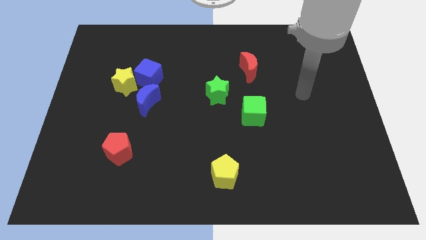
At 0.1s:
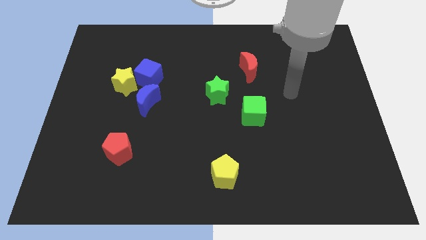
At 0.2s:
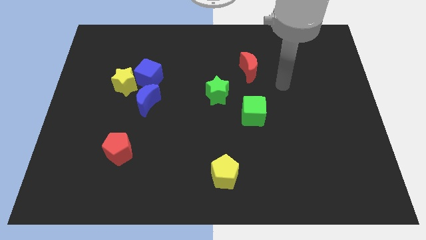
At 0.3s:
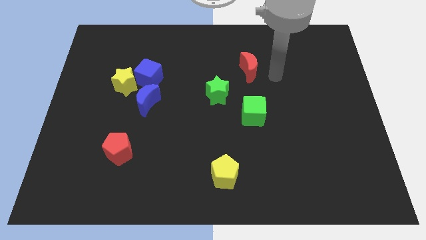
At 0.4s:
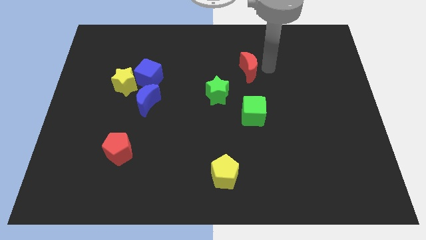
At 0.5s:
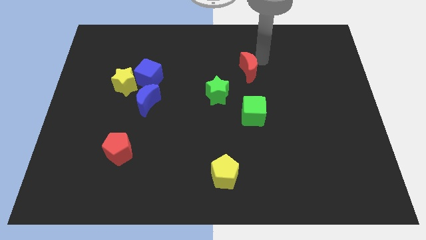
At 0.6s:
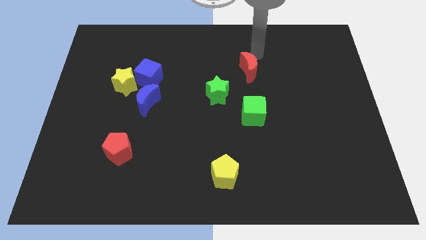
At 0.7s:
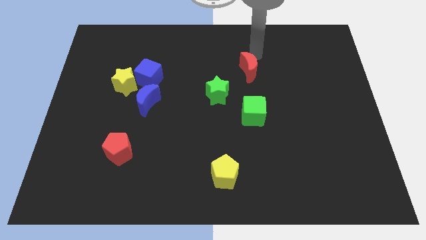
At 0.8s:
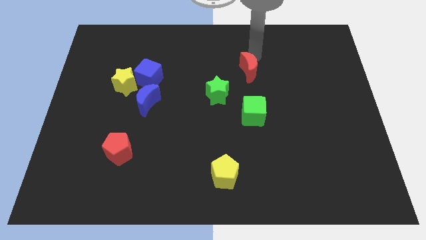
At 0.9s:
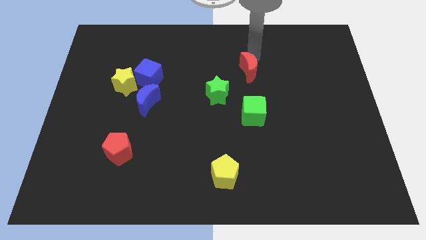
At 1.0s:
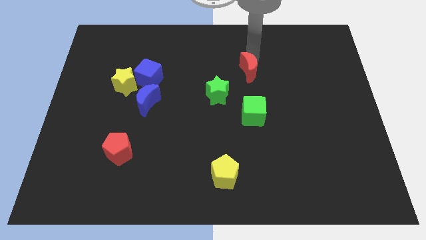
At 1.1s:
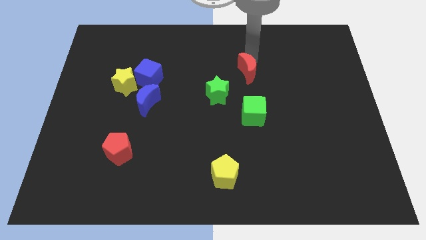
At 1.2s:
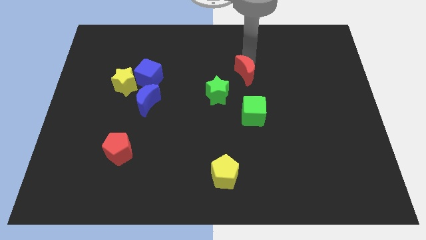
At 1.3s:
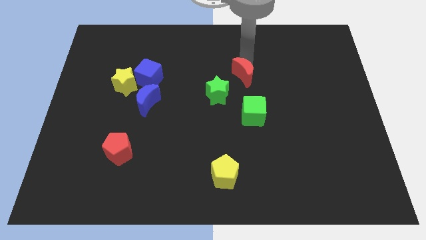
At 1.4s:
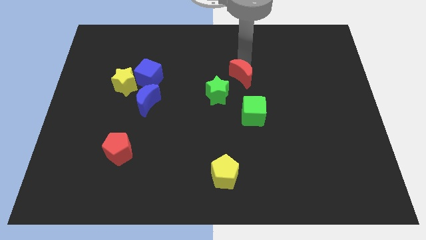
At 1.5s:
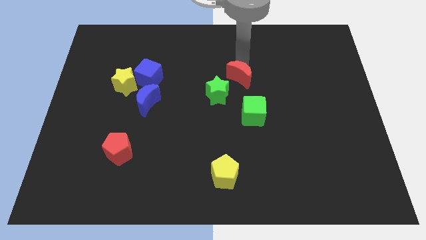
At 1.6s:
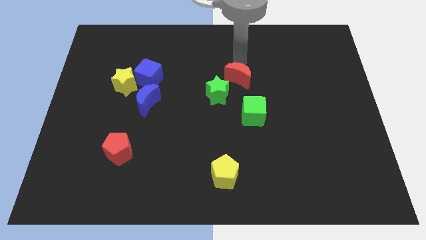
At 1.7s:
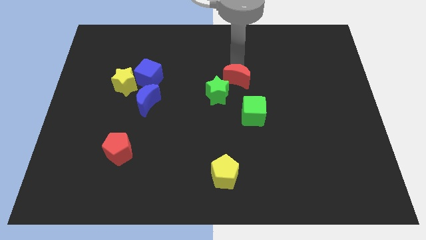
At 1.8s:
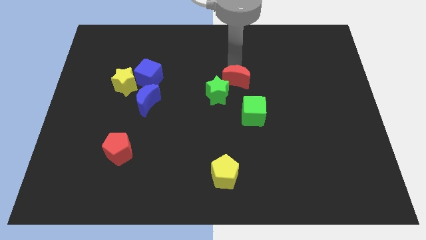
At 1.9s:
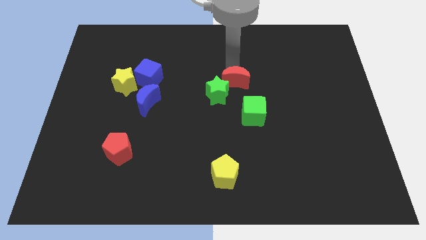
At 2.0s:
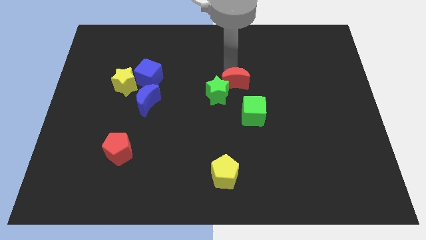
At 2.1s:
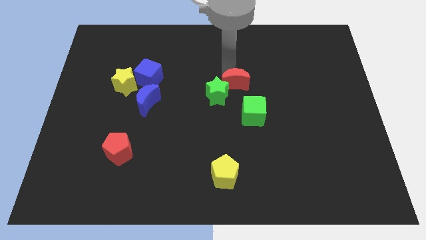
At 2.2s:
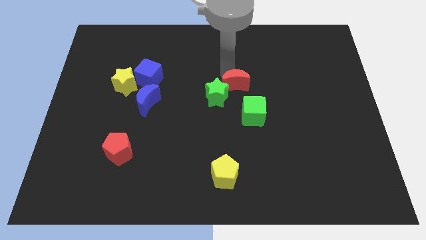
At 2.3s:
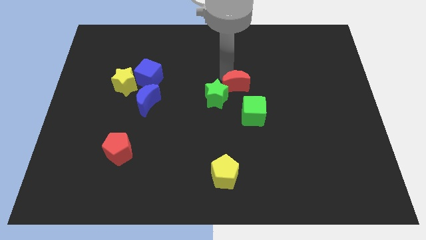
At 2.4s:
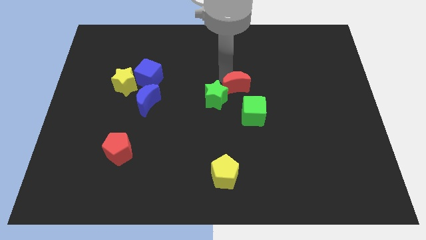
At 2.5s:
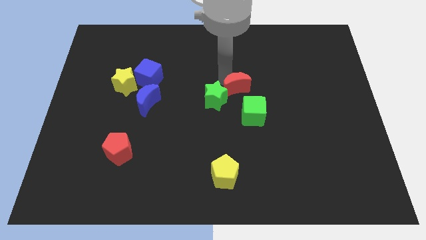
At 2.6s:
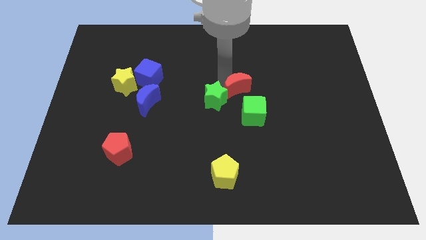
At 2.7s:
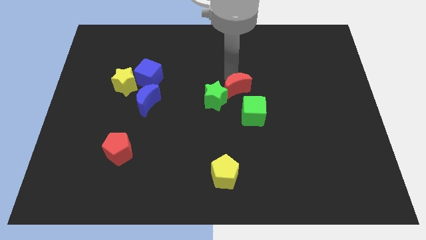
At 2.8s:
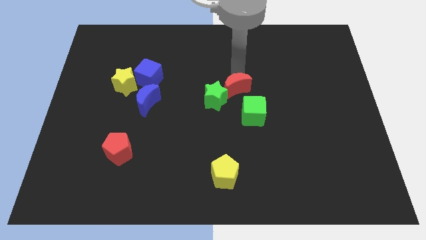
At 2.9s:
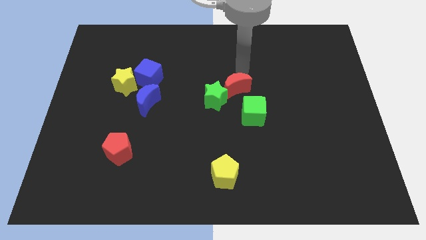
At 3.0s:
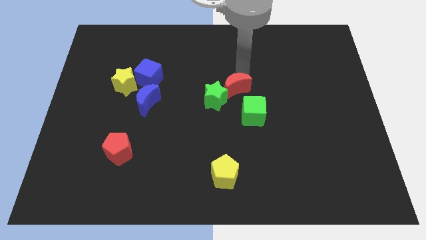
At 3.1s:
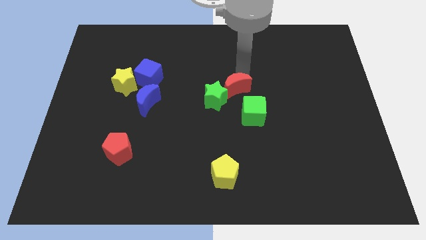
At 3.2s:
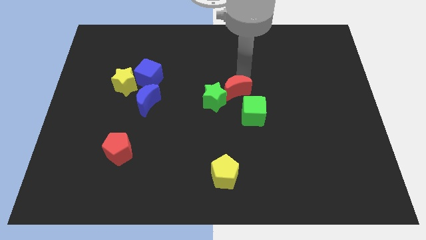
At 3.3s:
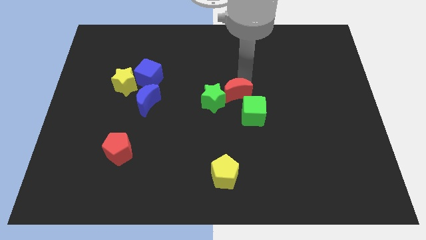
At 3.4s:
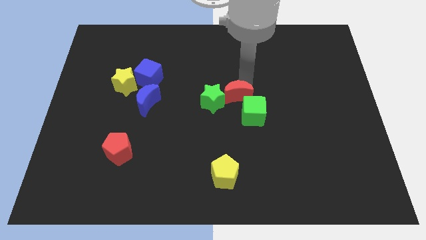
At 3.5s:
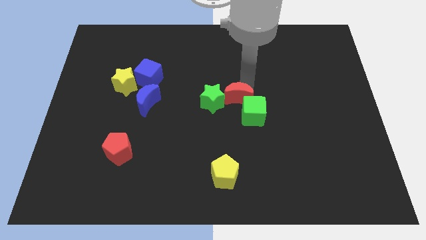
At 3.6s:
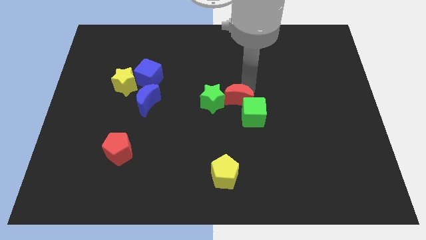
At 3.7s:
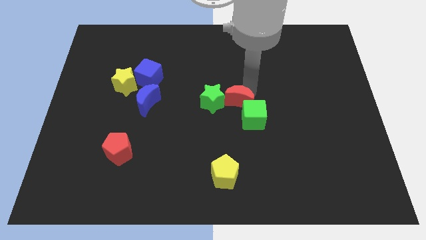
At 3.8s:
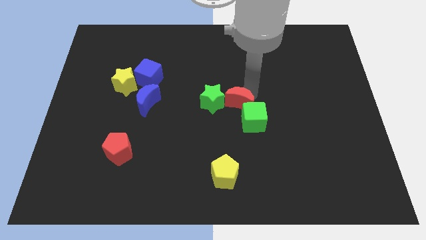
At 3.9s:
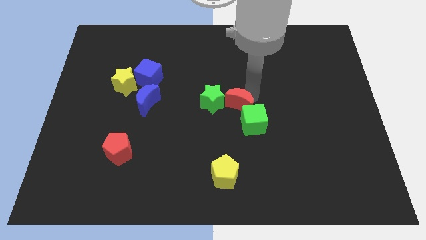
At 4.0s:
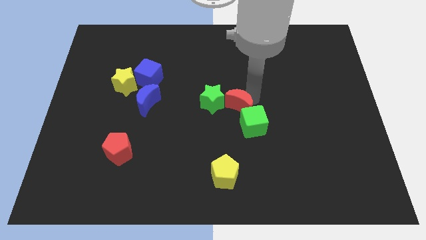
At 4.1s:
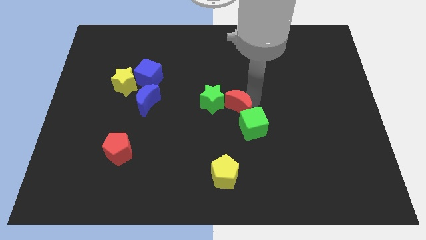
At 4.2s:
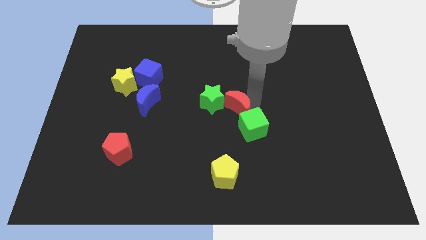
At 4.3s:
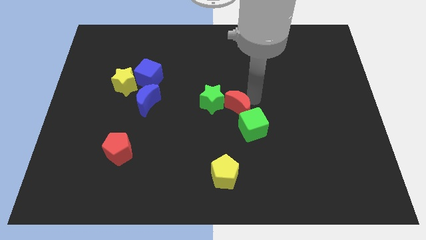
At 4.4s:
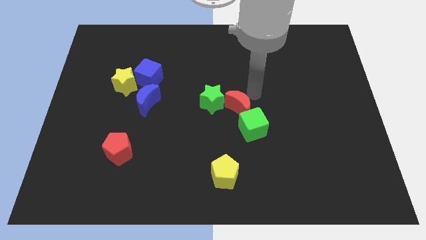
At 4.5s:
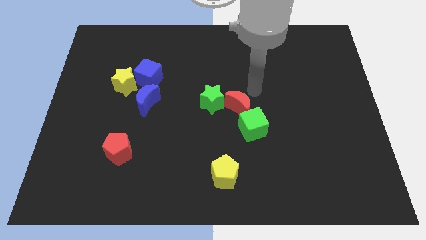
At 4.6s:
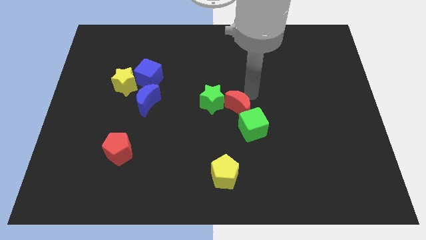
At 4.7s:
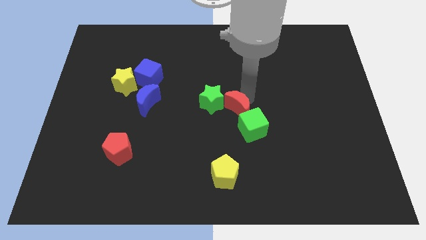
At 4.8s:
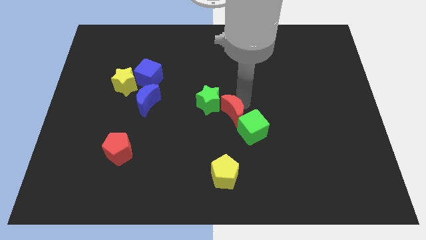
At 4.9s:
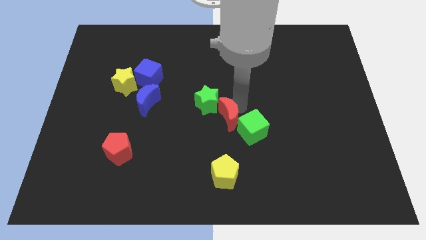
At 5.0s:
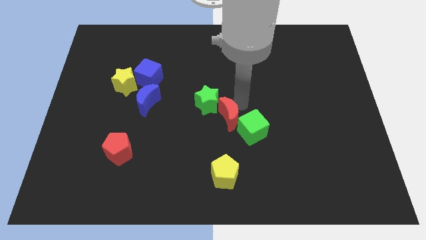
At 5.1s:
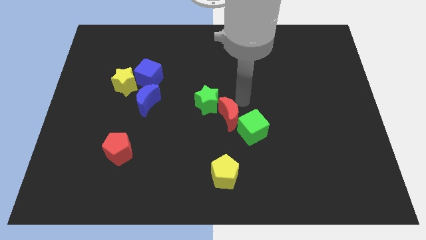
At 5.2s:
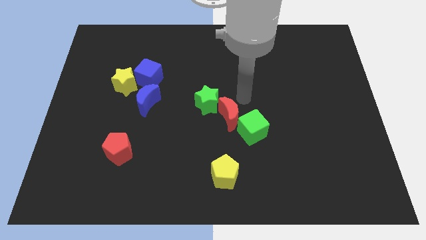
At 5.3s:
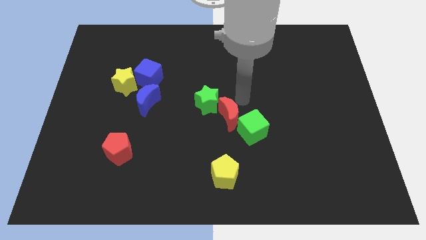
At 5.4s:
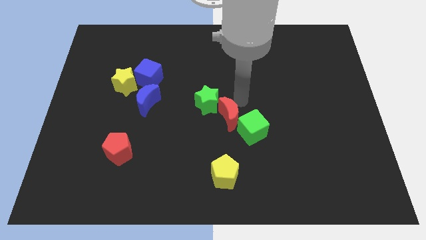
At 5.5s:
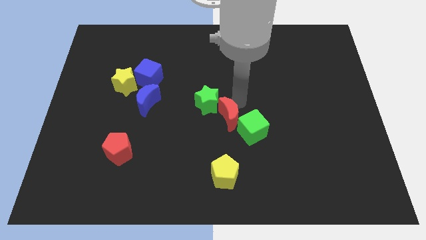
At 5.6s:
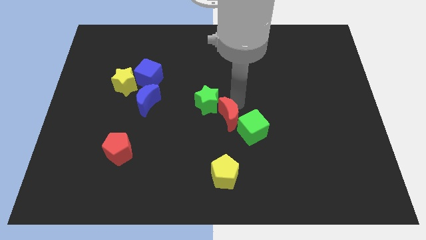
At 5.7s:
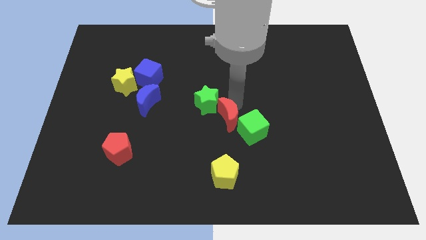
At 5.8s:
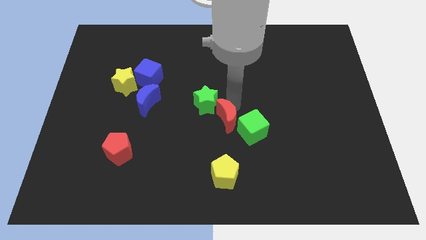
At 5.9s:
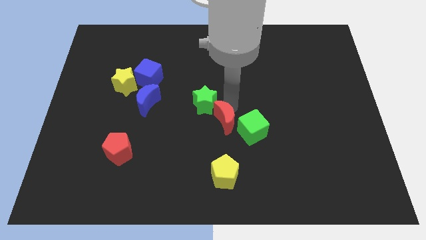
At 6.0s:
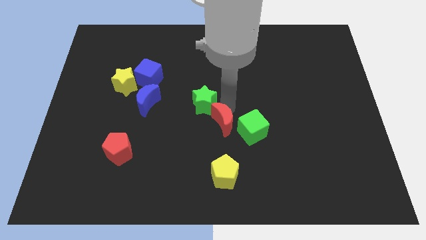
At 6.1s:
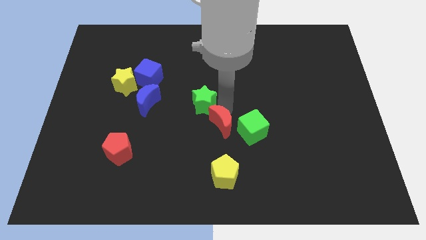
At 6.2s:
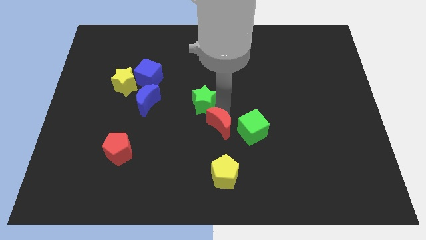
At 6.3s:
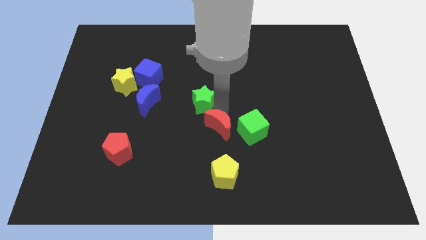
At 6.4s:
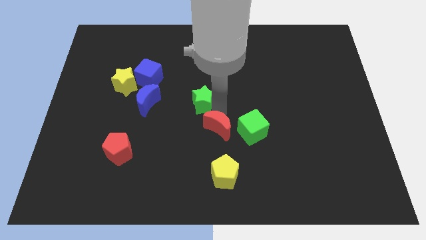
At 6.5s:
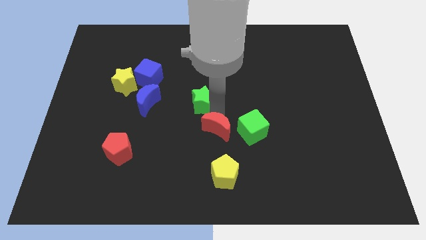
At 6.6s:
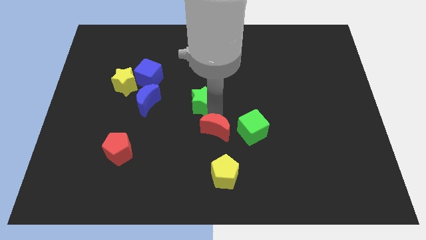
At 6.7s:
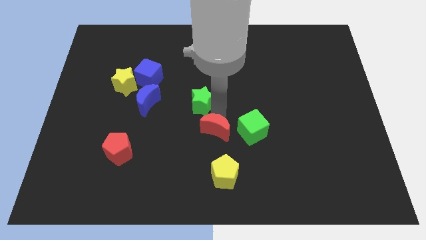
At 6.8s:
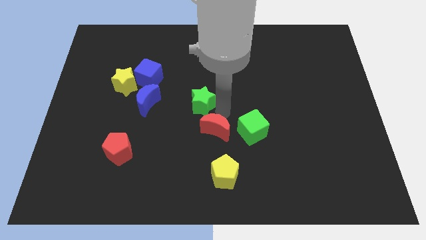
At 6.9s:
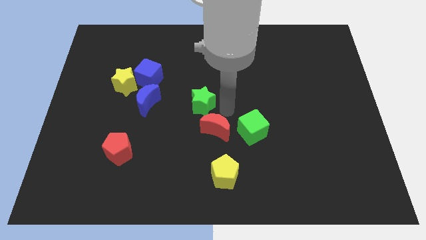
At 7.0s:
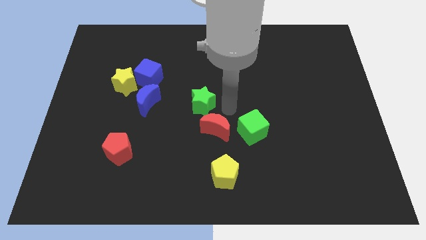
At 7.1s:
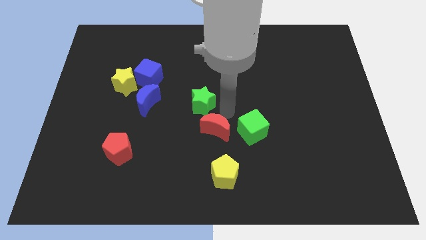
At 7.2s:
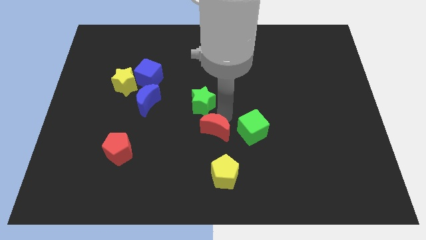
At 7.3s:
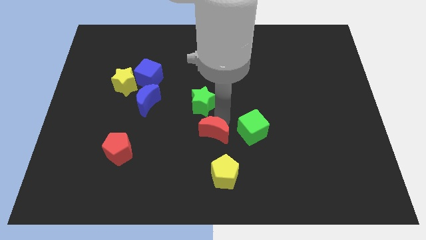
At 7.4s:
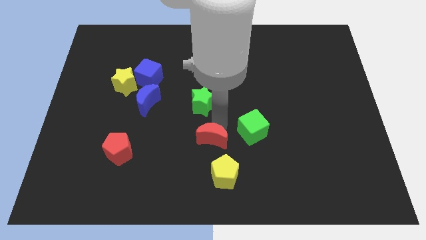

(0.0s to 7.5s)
move the red moon to the top left side of the yellow pentagon

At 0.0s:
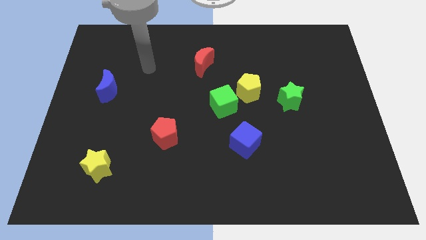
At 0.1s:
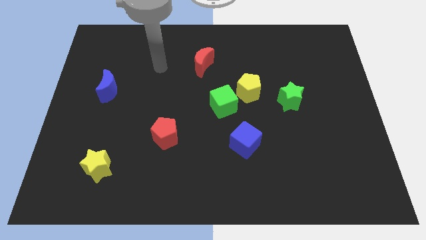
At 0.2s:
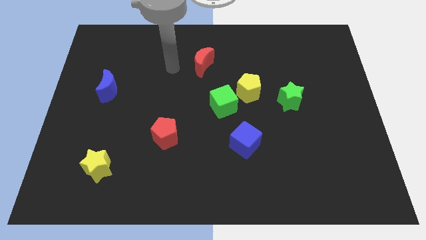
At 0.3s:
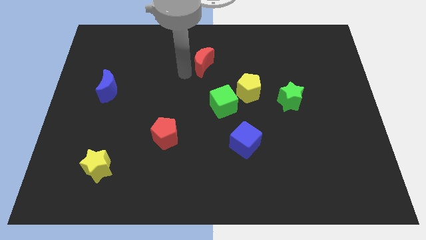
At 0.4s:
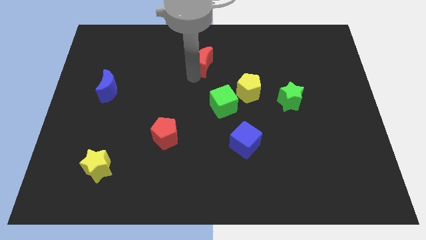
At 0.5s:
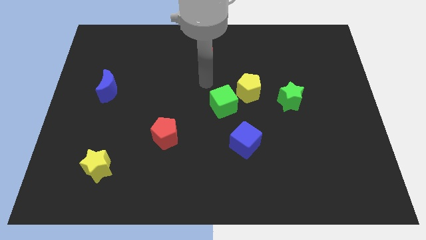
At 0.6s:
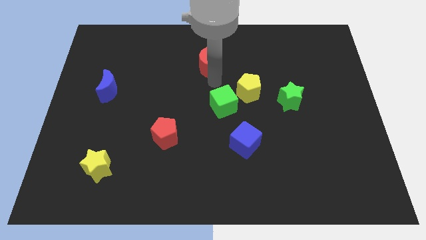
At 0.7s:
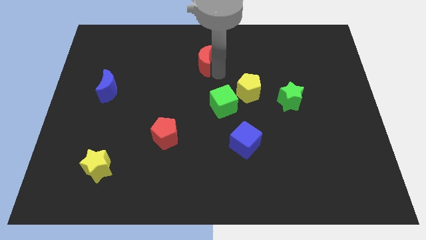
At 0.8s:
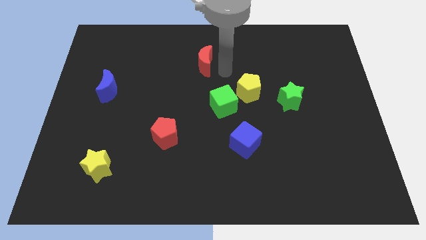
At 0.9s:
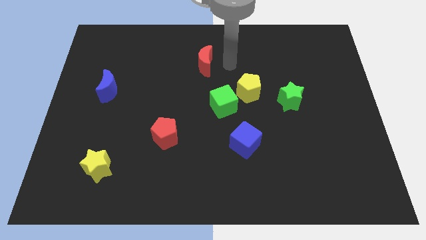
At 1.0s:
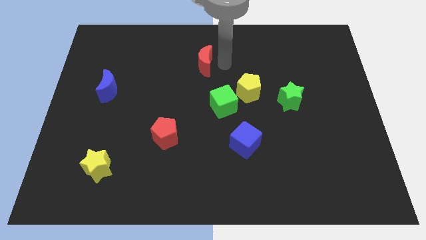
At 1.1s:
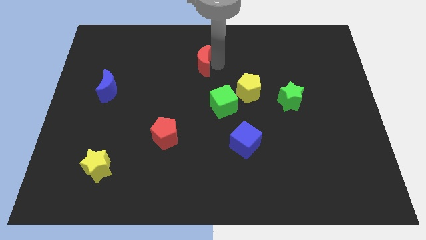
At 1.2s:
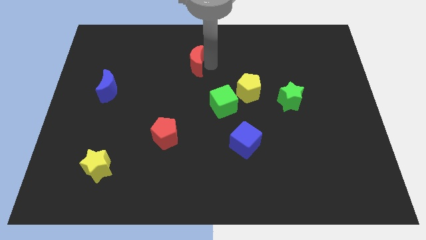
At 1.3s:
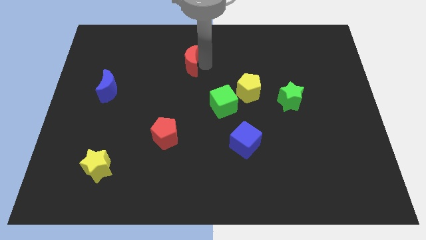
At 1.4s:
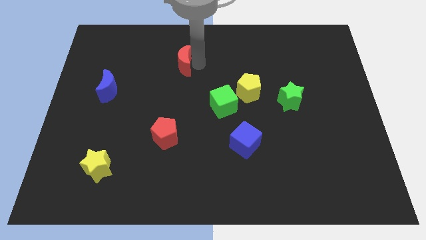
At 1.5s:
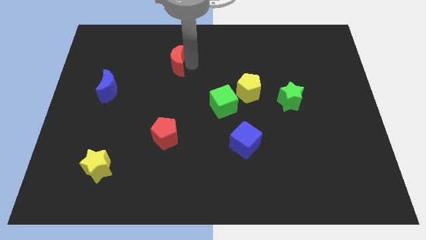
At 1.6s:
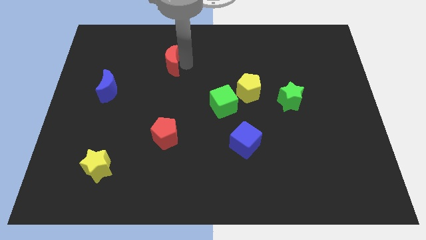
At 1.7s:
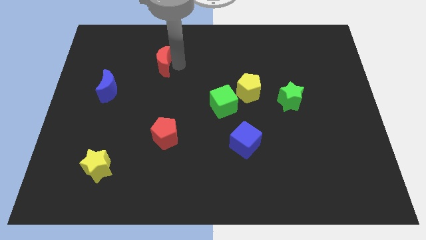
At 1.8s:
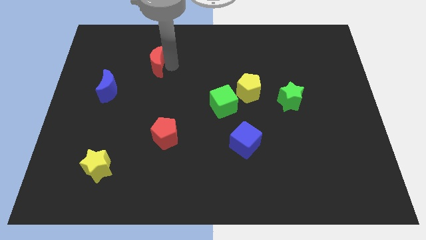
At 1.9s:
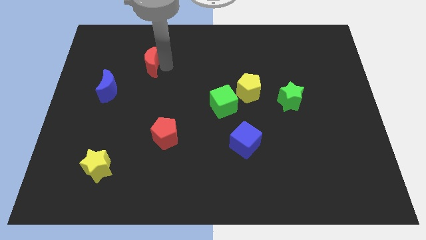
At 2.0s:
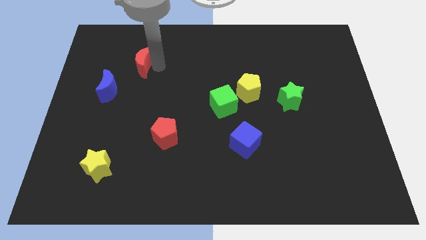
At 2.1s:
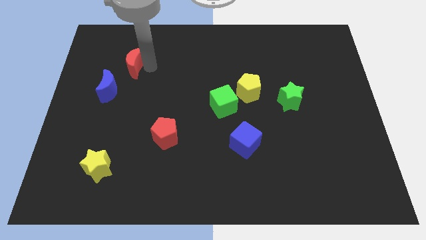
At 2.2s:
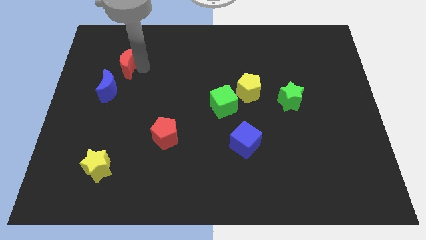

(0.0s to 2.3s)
push the red moon to the top of the blue moon
